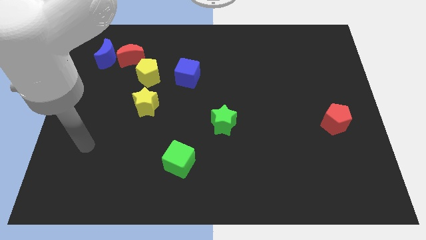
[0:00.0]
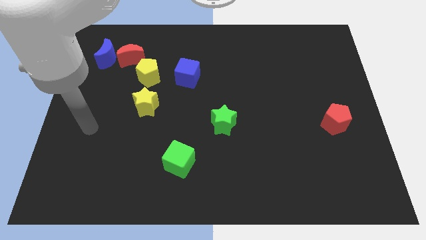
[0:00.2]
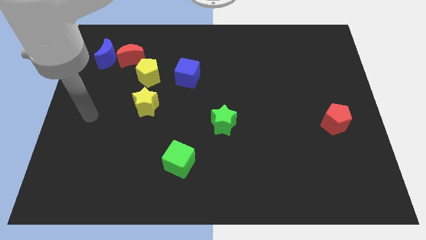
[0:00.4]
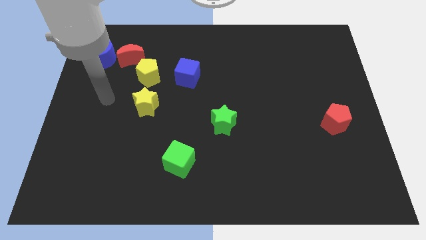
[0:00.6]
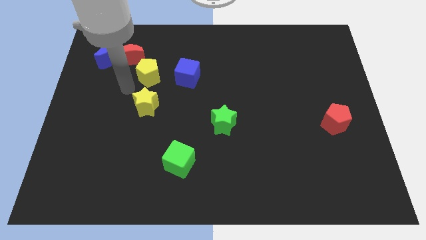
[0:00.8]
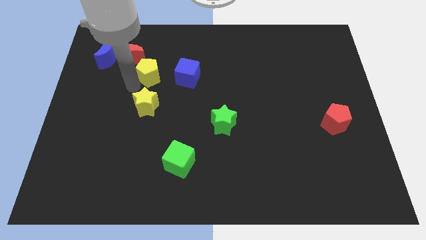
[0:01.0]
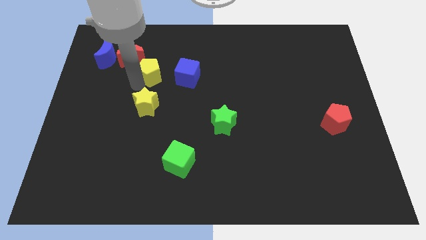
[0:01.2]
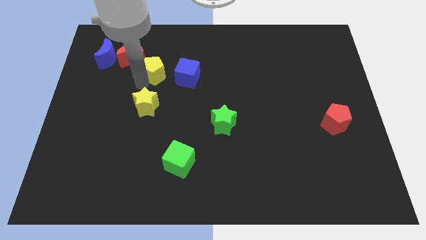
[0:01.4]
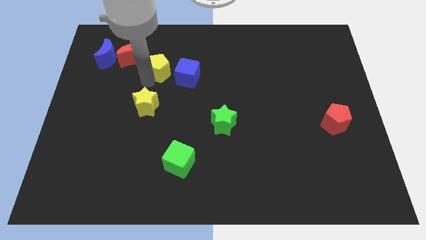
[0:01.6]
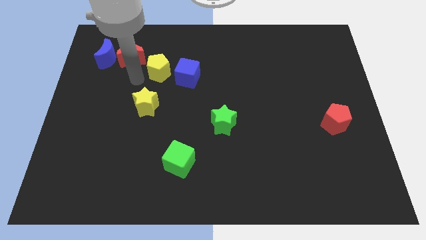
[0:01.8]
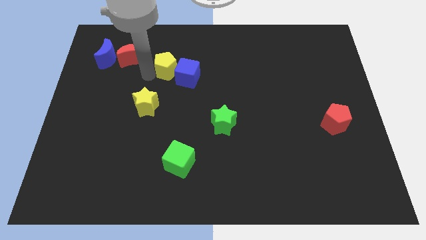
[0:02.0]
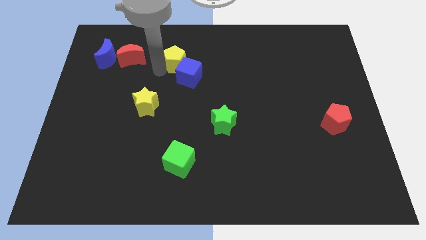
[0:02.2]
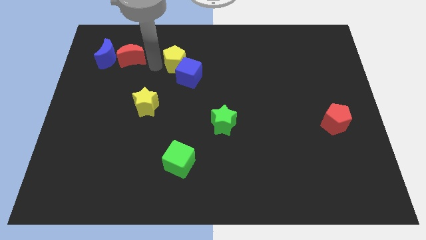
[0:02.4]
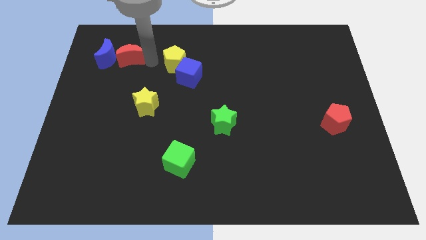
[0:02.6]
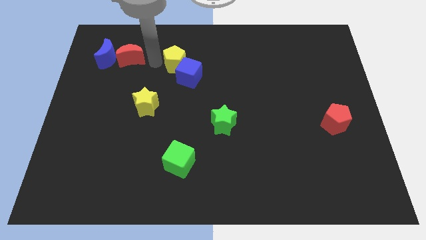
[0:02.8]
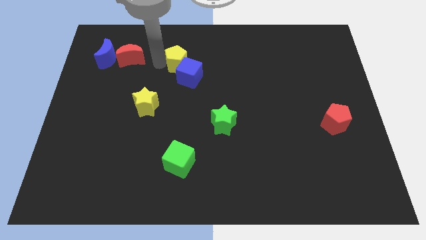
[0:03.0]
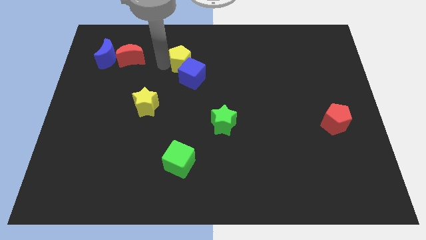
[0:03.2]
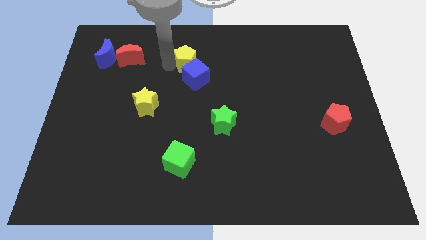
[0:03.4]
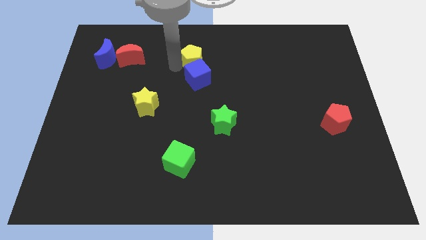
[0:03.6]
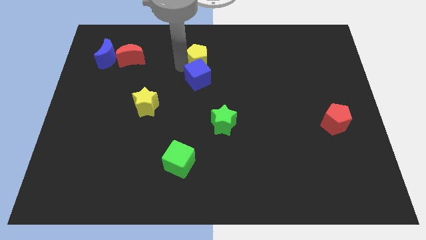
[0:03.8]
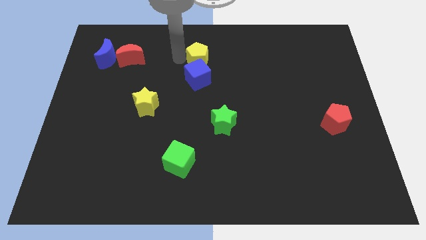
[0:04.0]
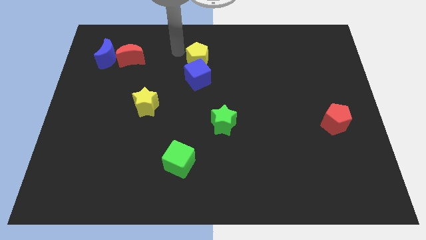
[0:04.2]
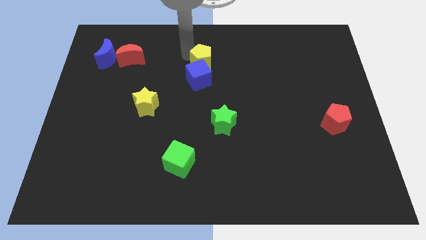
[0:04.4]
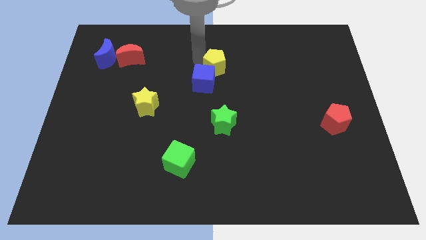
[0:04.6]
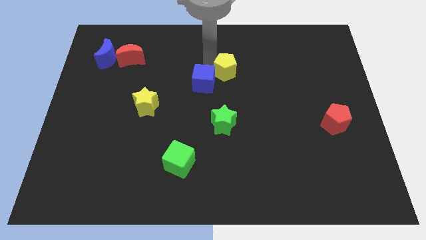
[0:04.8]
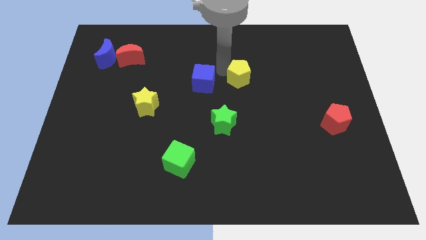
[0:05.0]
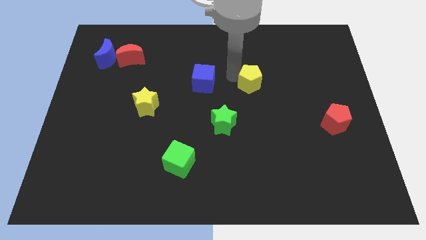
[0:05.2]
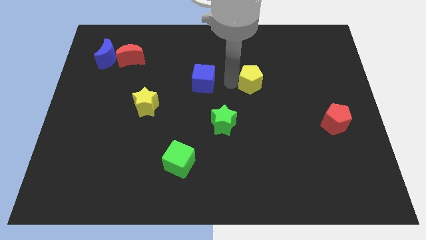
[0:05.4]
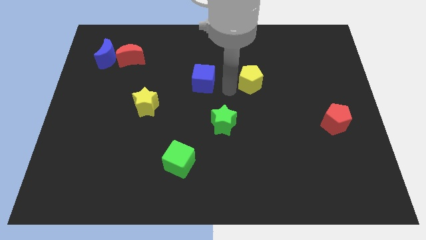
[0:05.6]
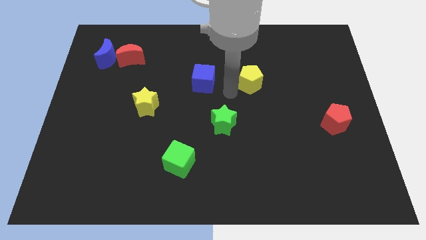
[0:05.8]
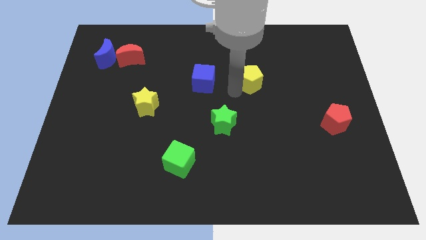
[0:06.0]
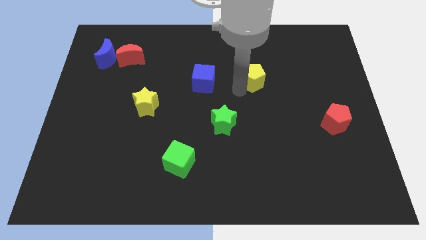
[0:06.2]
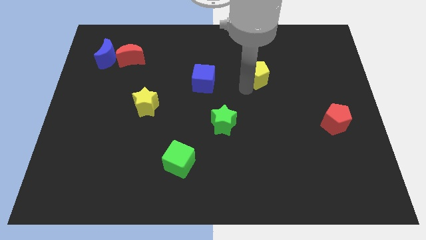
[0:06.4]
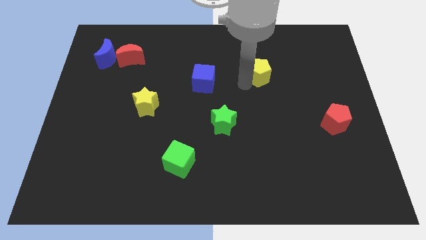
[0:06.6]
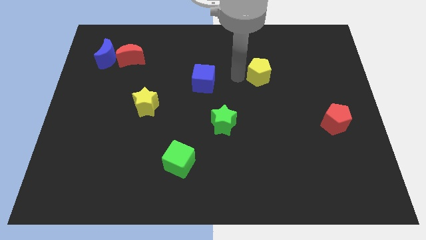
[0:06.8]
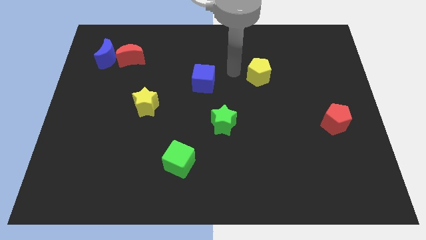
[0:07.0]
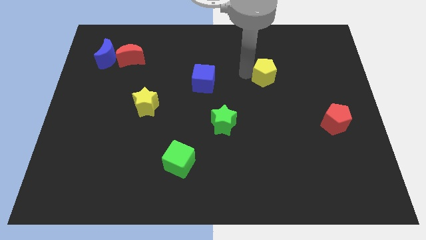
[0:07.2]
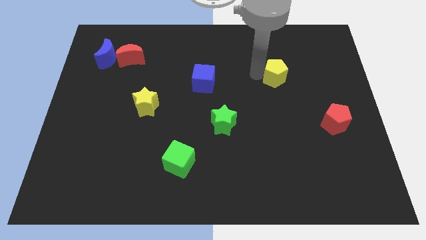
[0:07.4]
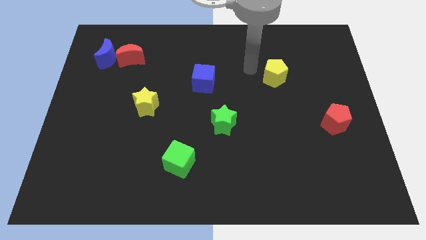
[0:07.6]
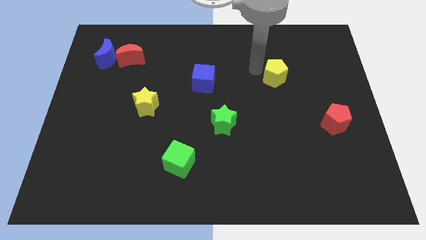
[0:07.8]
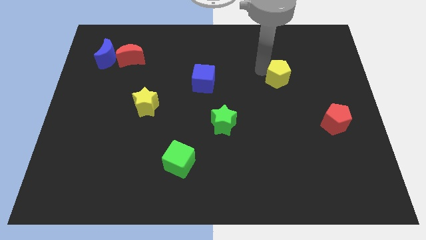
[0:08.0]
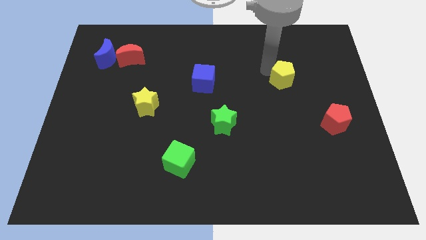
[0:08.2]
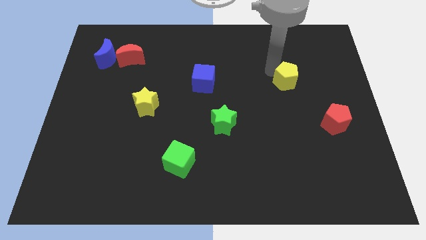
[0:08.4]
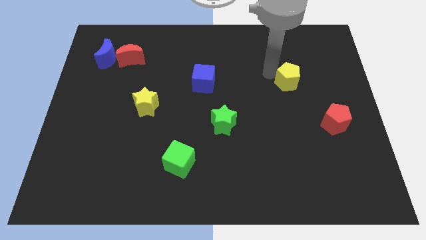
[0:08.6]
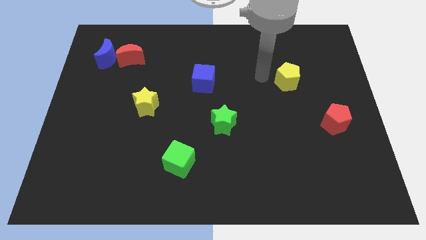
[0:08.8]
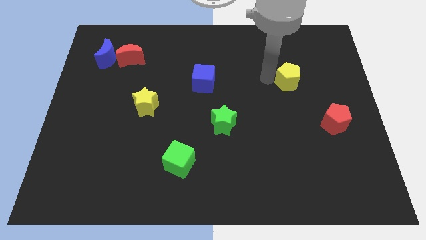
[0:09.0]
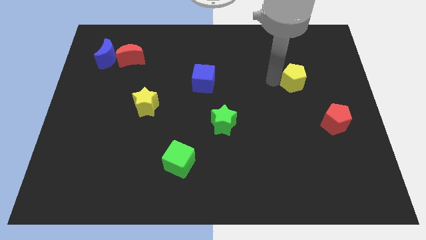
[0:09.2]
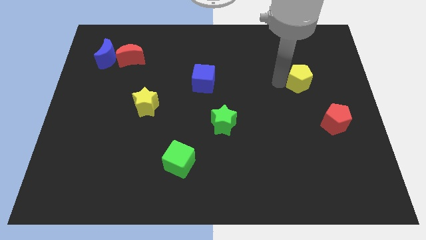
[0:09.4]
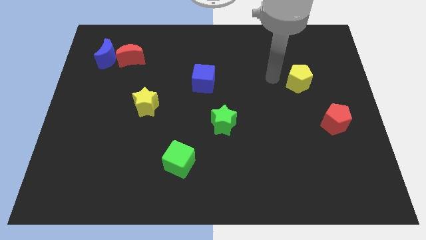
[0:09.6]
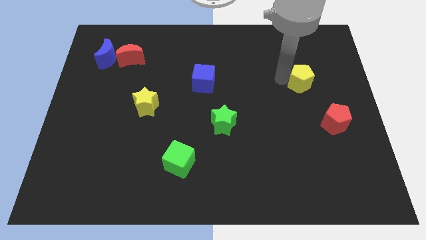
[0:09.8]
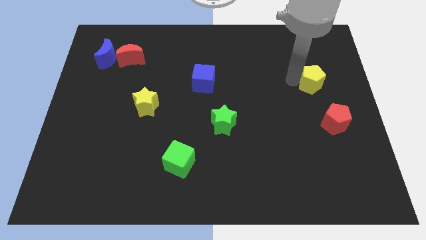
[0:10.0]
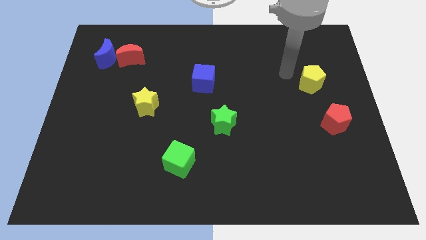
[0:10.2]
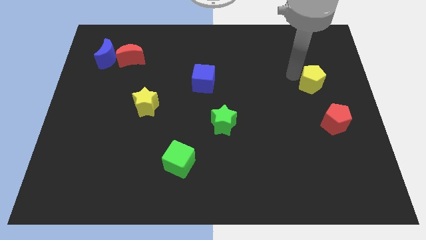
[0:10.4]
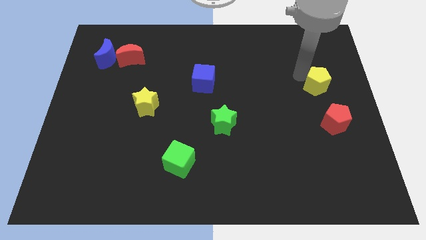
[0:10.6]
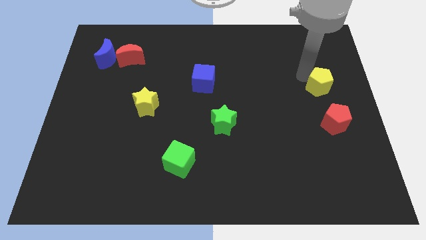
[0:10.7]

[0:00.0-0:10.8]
move the yellow pentagon to the right side of the board

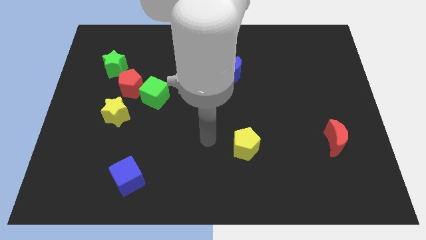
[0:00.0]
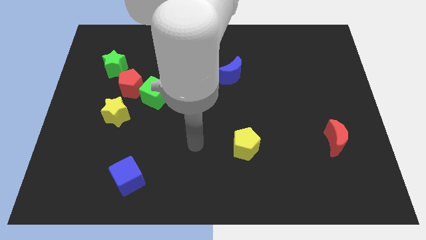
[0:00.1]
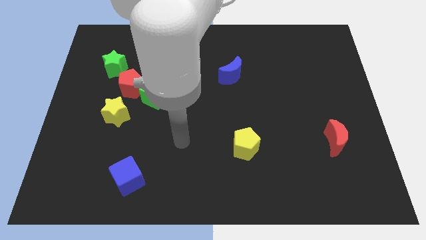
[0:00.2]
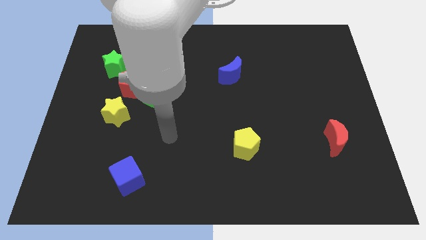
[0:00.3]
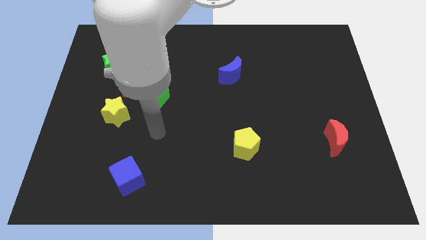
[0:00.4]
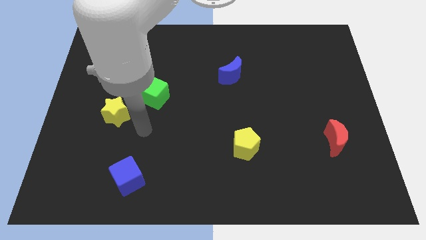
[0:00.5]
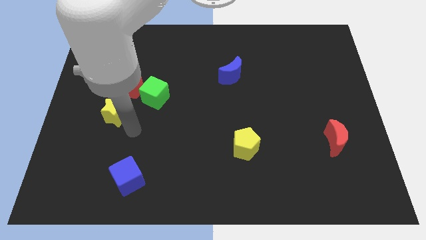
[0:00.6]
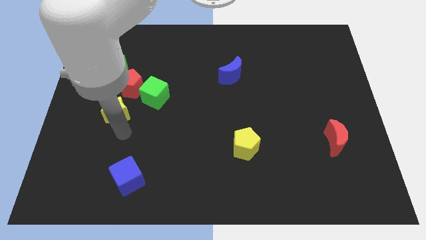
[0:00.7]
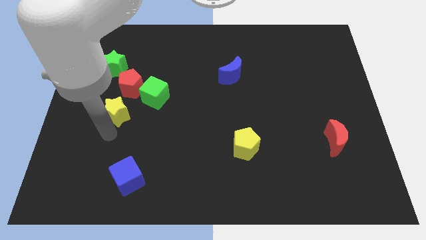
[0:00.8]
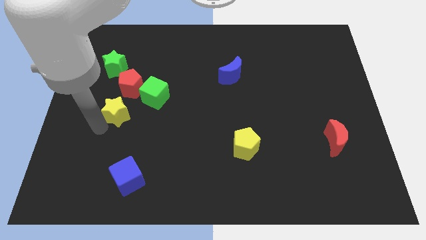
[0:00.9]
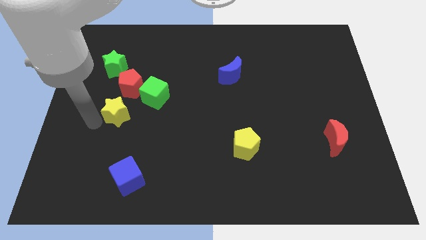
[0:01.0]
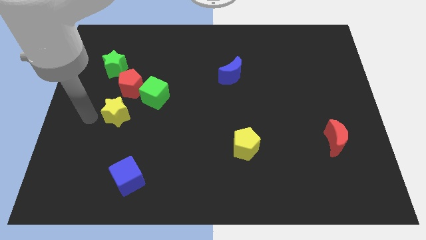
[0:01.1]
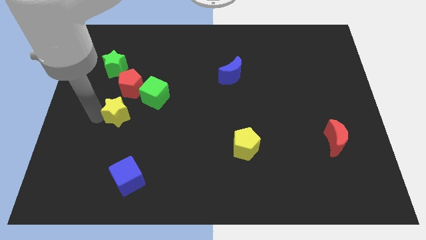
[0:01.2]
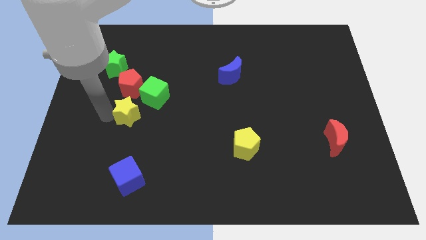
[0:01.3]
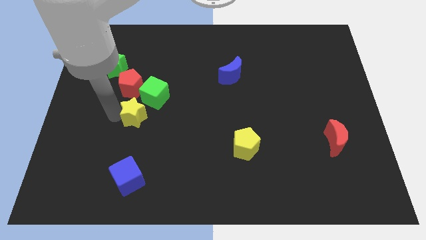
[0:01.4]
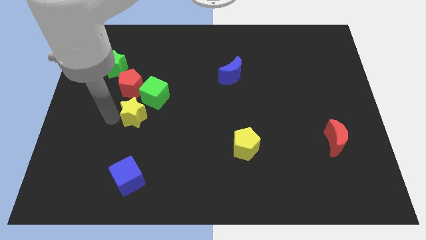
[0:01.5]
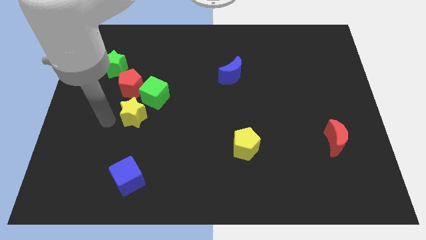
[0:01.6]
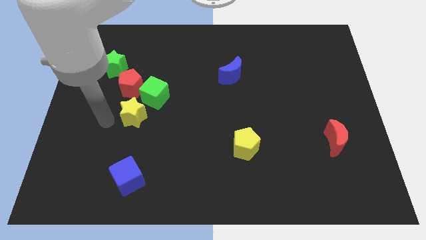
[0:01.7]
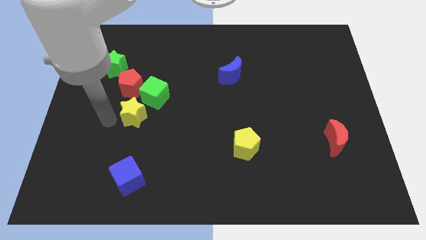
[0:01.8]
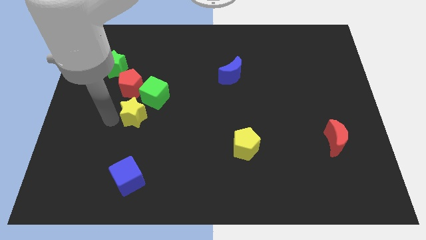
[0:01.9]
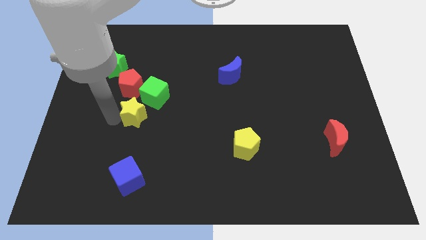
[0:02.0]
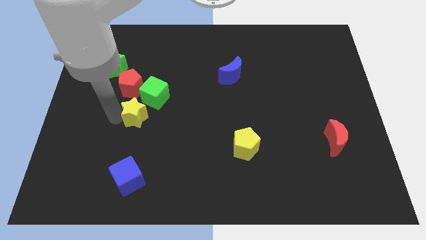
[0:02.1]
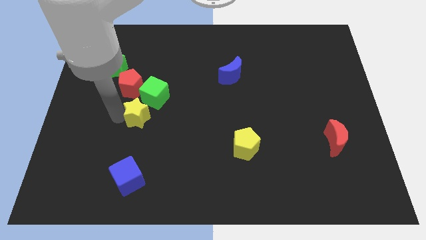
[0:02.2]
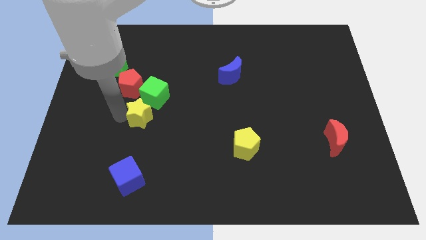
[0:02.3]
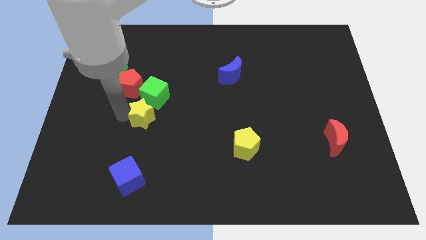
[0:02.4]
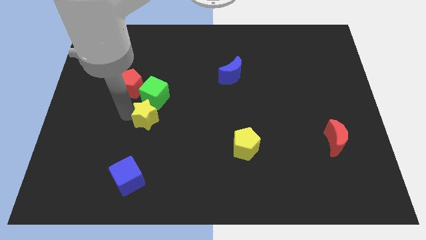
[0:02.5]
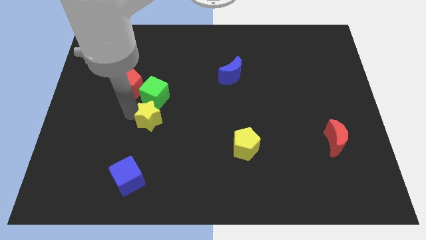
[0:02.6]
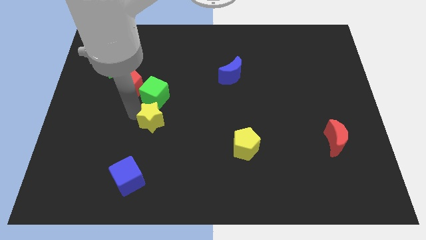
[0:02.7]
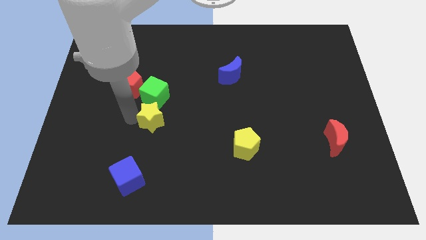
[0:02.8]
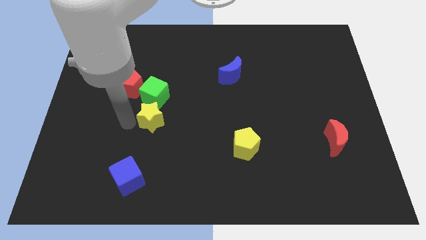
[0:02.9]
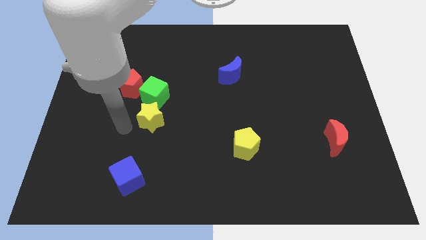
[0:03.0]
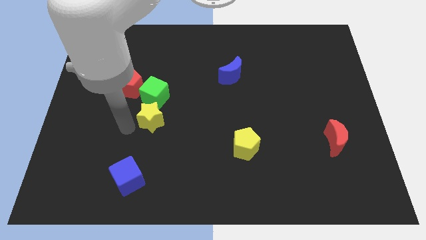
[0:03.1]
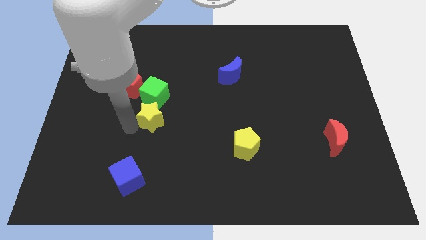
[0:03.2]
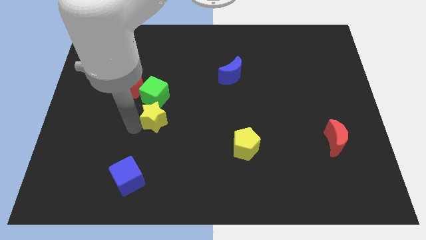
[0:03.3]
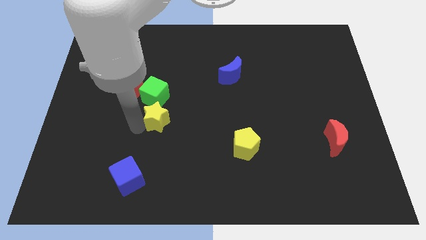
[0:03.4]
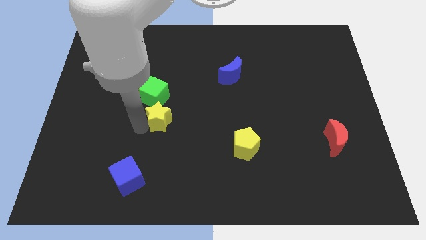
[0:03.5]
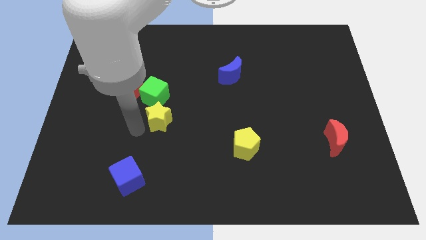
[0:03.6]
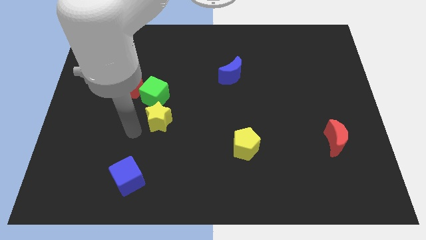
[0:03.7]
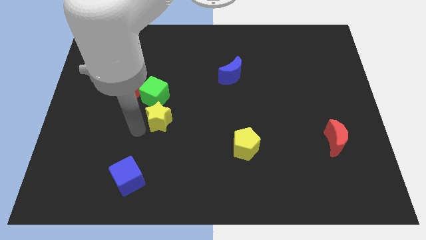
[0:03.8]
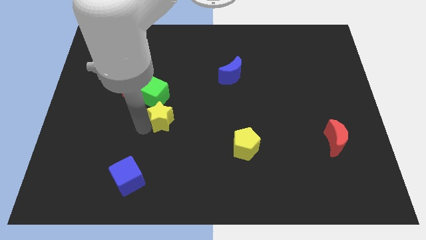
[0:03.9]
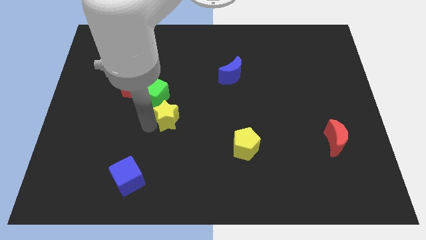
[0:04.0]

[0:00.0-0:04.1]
put the yellow star to the middle of the board
